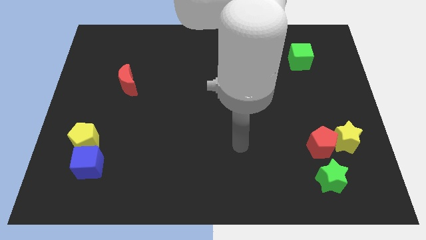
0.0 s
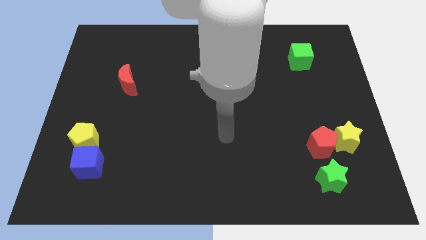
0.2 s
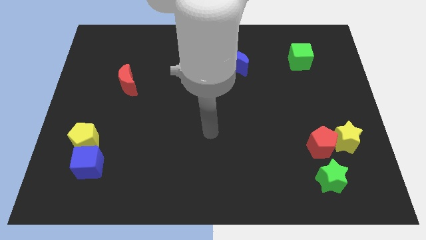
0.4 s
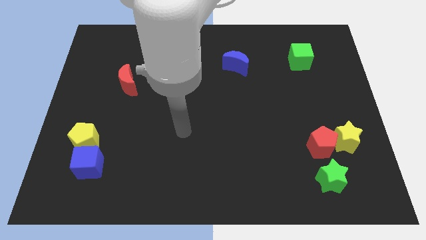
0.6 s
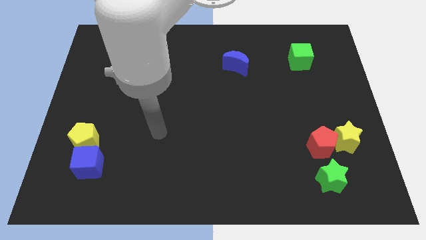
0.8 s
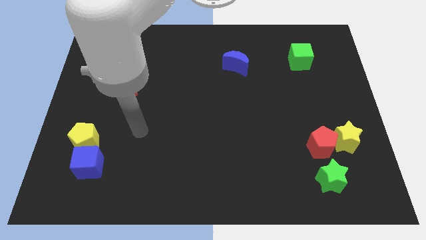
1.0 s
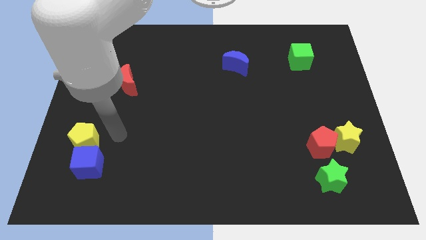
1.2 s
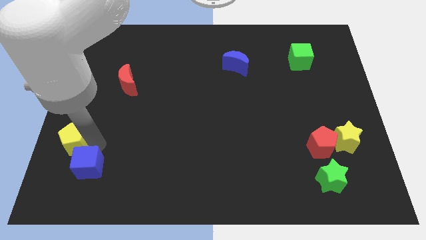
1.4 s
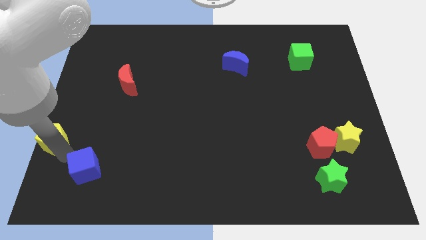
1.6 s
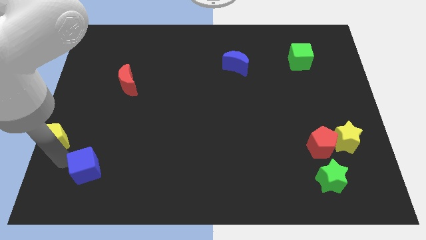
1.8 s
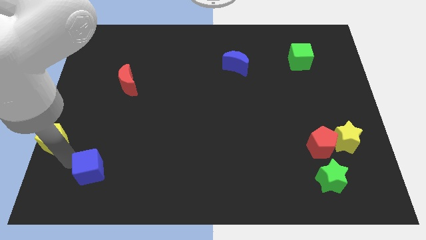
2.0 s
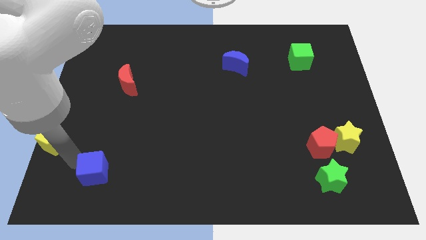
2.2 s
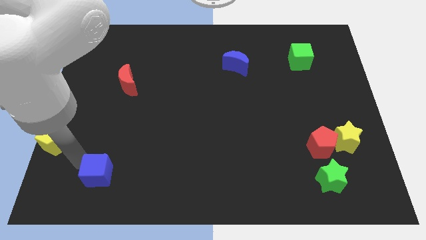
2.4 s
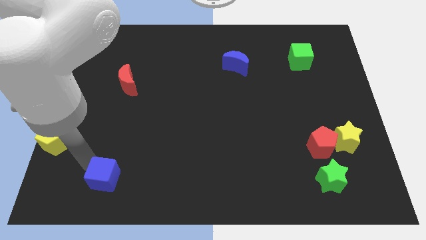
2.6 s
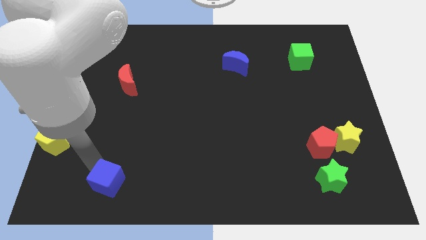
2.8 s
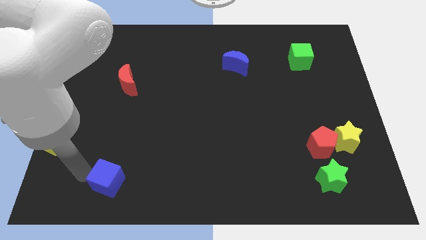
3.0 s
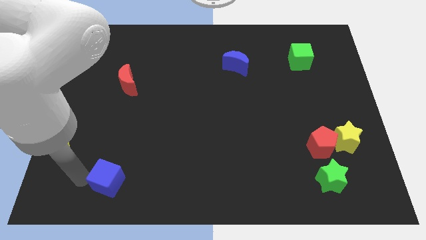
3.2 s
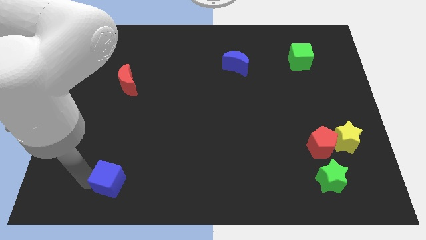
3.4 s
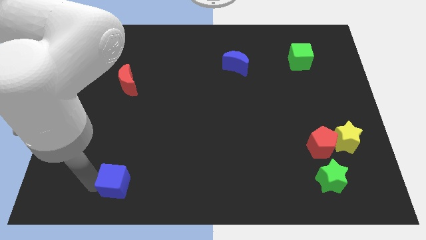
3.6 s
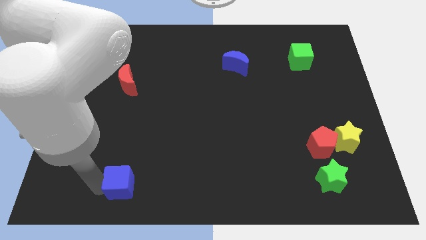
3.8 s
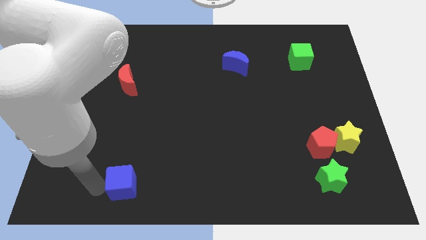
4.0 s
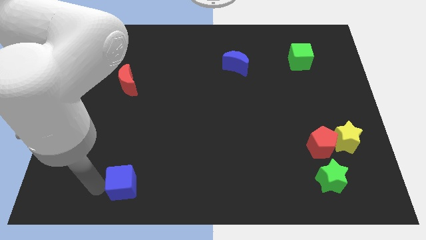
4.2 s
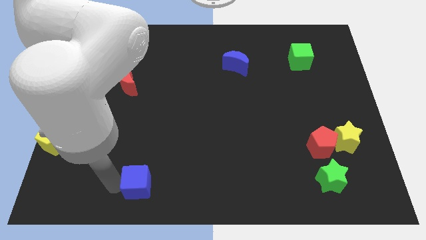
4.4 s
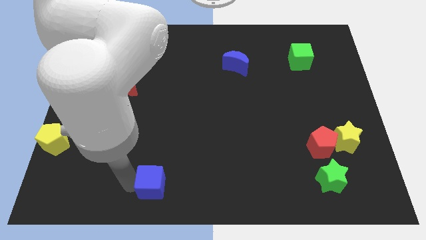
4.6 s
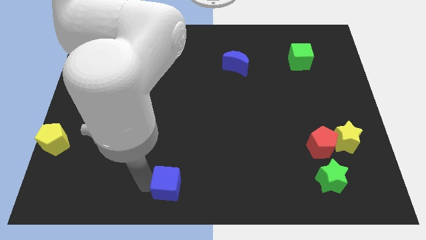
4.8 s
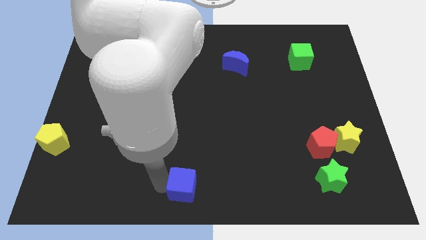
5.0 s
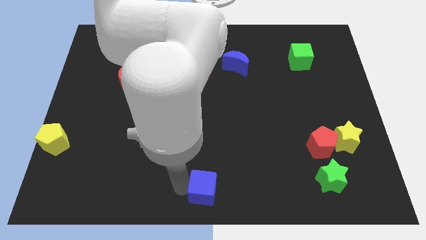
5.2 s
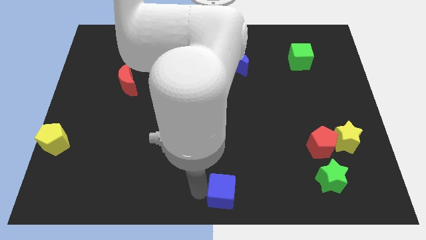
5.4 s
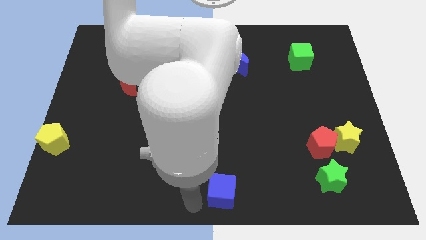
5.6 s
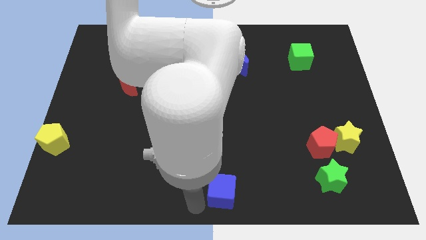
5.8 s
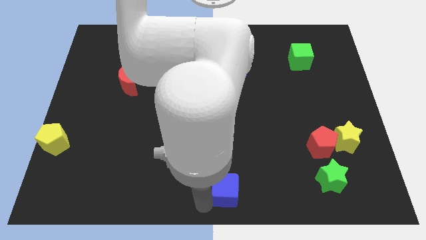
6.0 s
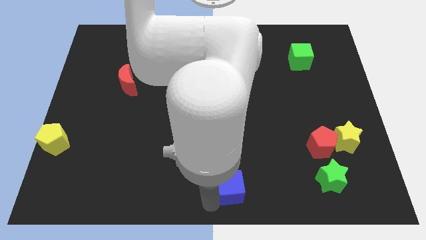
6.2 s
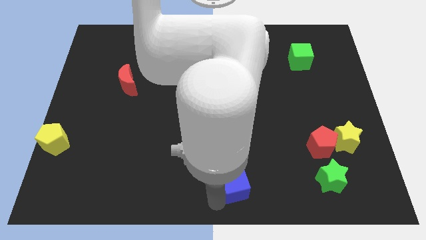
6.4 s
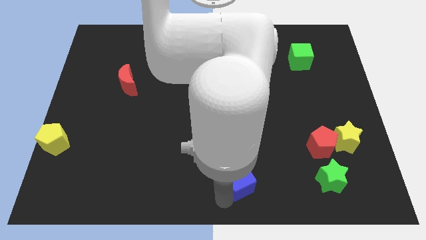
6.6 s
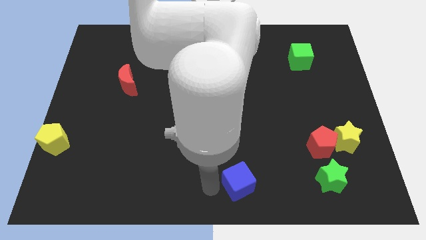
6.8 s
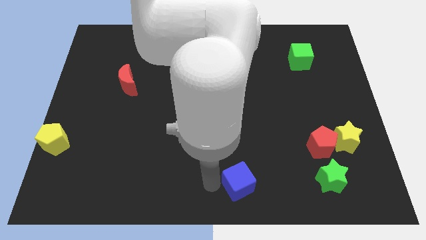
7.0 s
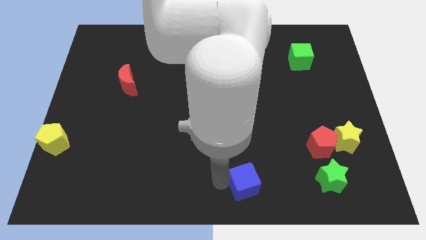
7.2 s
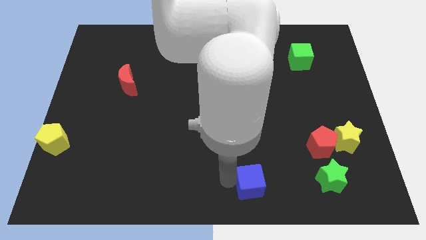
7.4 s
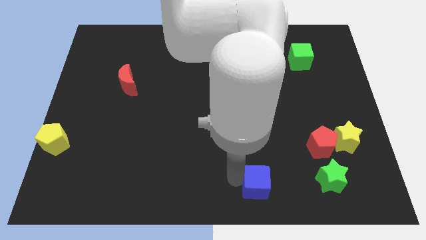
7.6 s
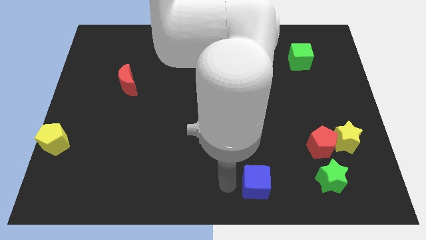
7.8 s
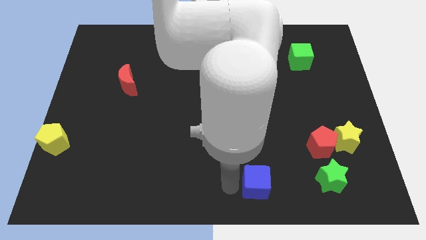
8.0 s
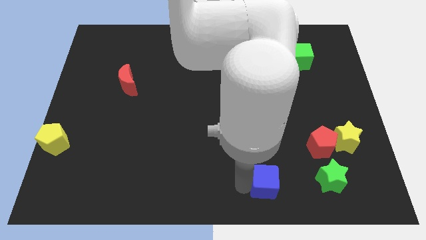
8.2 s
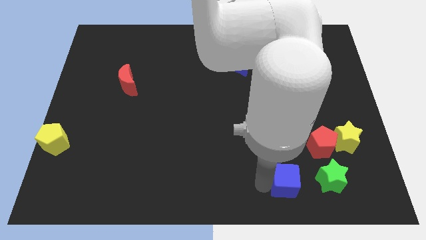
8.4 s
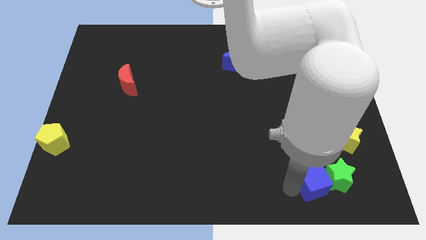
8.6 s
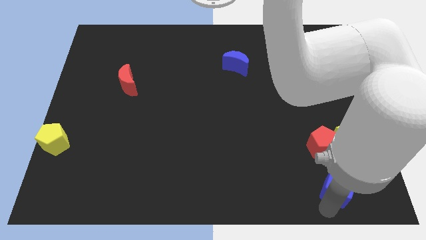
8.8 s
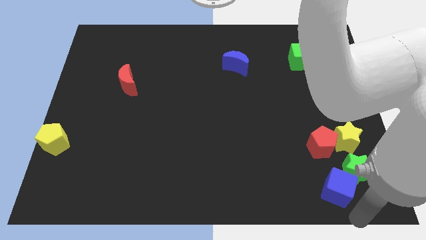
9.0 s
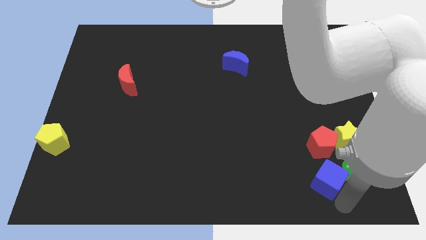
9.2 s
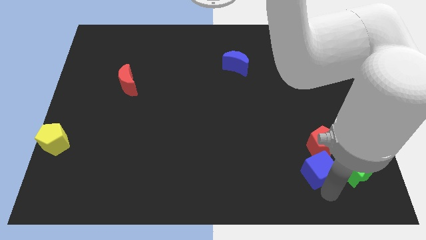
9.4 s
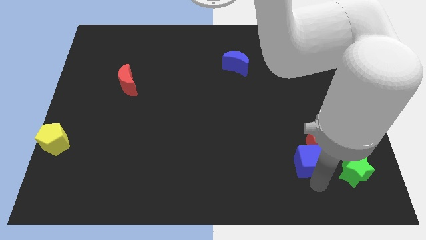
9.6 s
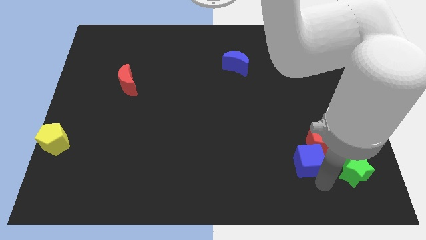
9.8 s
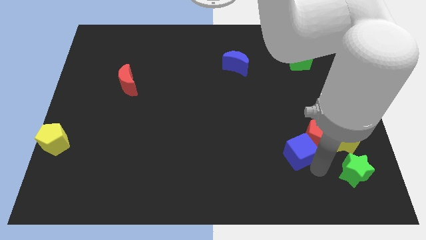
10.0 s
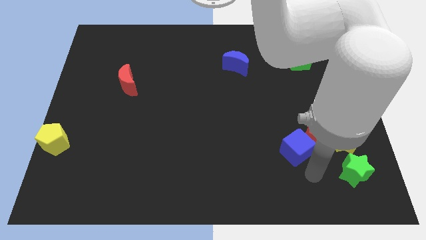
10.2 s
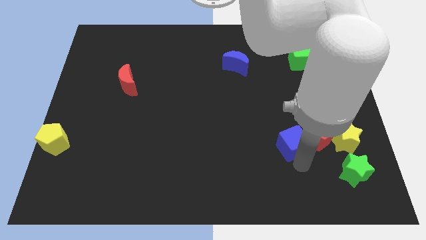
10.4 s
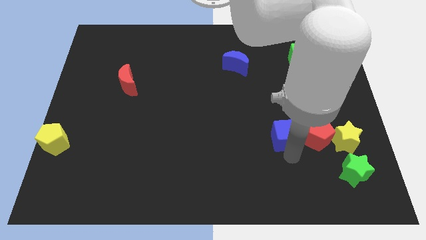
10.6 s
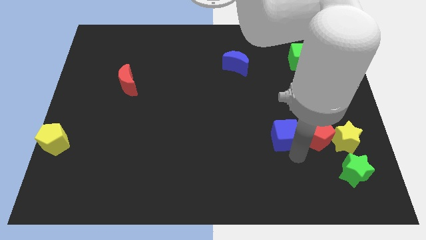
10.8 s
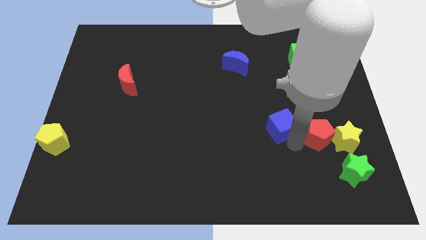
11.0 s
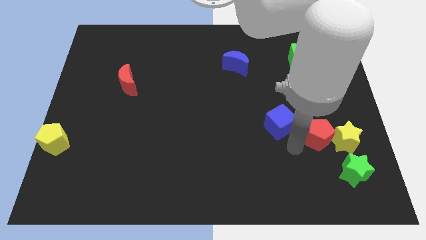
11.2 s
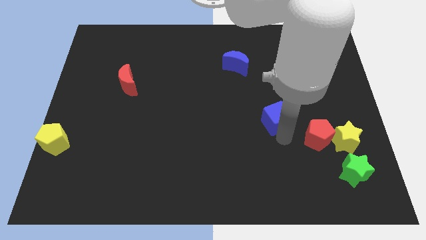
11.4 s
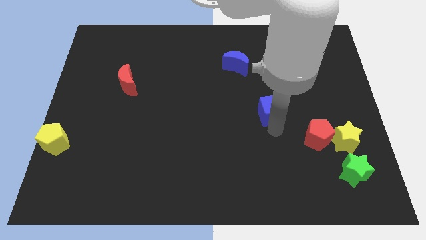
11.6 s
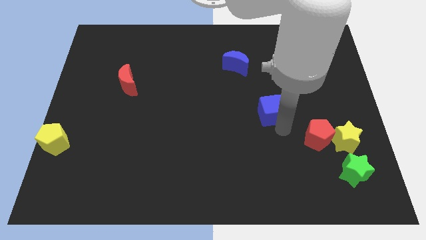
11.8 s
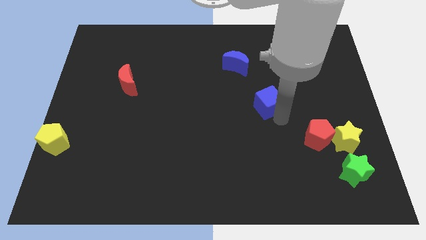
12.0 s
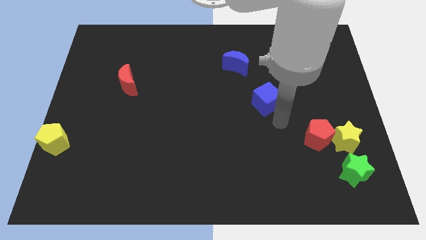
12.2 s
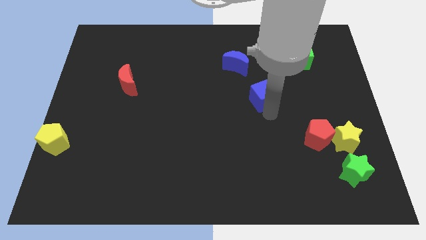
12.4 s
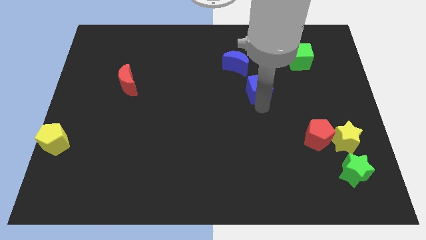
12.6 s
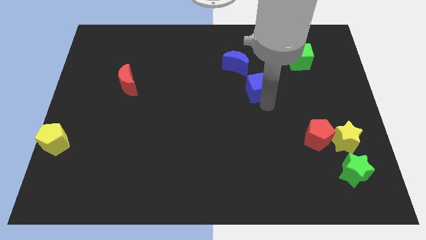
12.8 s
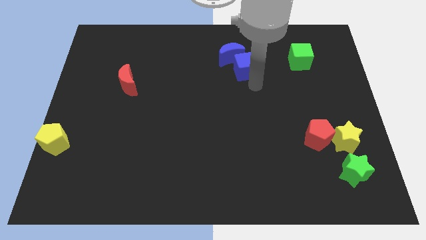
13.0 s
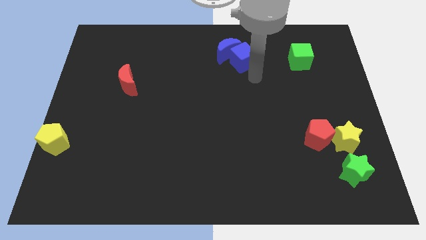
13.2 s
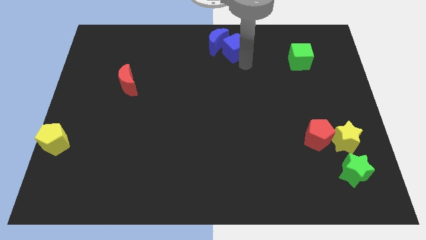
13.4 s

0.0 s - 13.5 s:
push the blue cube to the towards your base

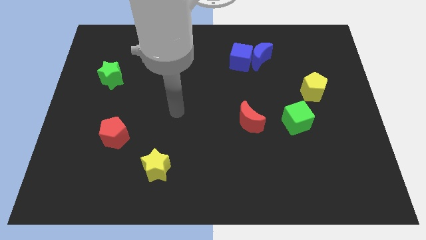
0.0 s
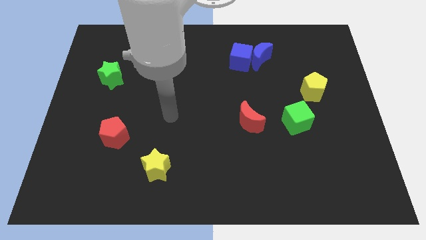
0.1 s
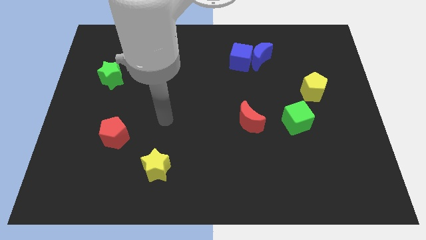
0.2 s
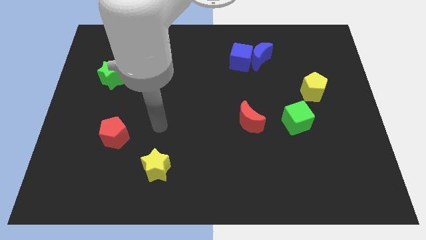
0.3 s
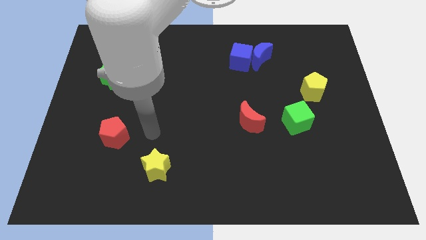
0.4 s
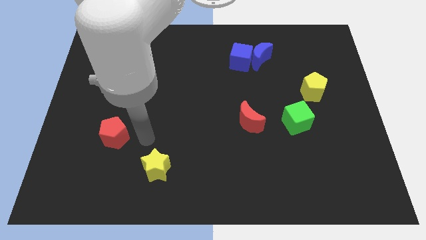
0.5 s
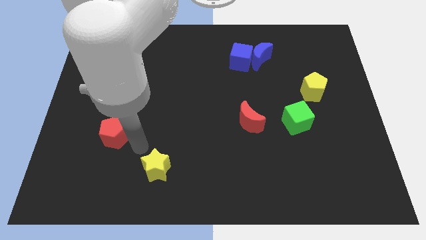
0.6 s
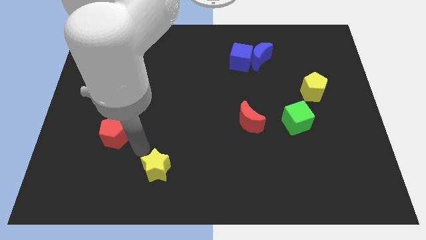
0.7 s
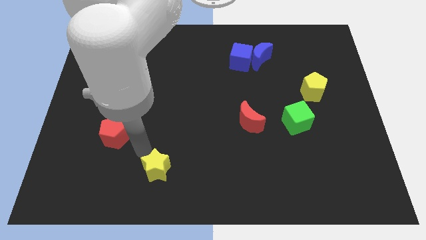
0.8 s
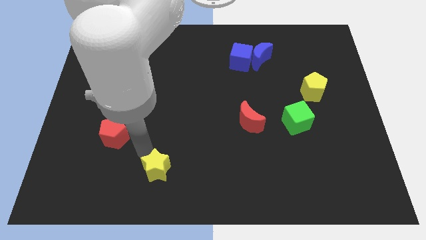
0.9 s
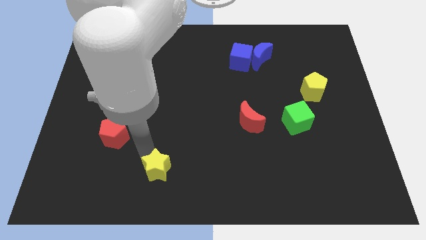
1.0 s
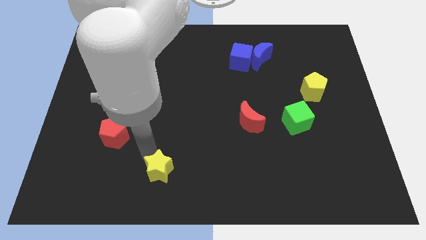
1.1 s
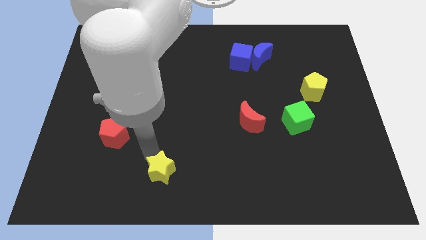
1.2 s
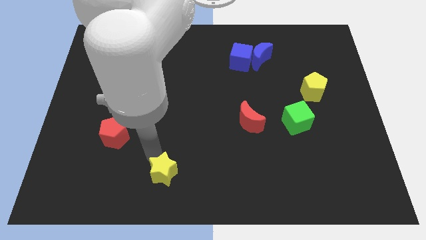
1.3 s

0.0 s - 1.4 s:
slide the yellow star to the bottom side
